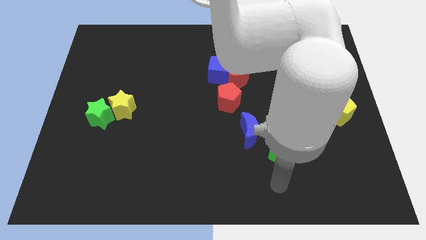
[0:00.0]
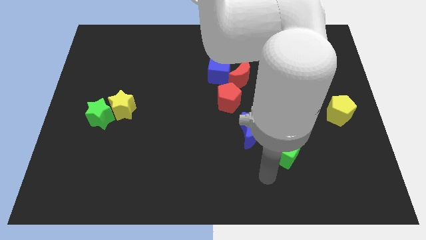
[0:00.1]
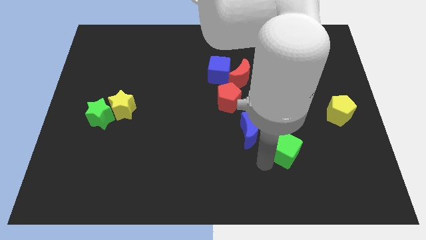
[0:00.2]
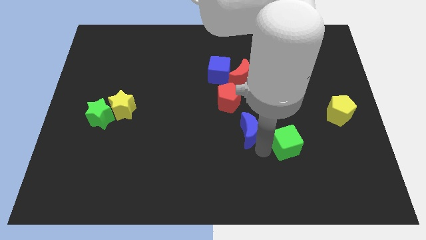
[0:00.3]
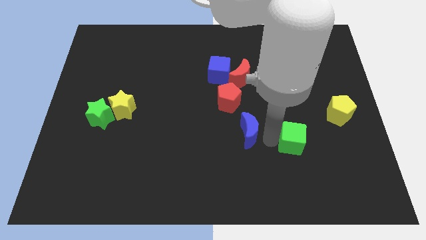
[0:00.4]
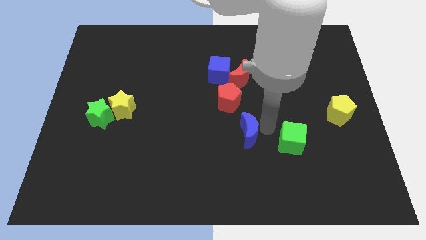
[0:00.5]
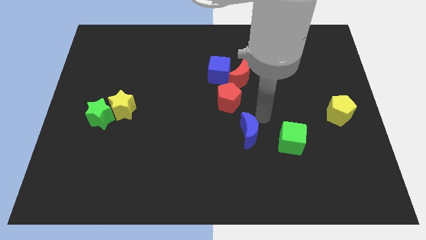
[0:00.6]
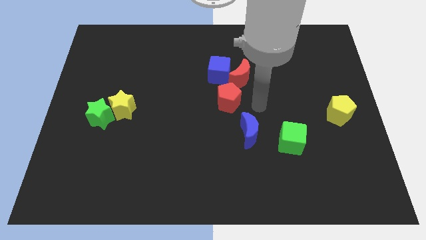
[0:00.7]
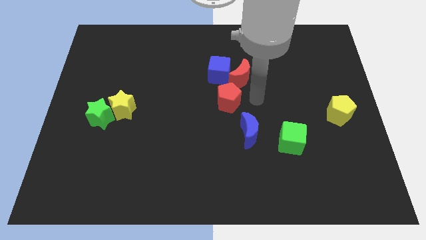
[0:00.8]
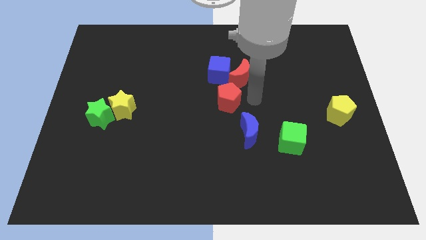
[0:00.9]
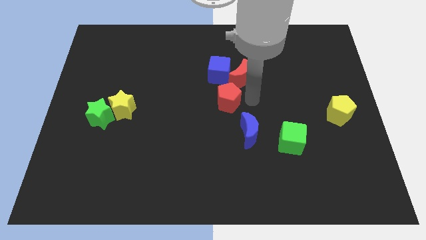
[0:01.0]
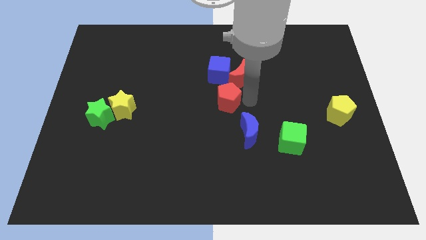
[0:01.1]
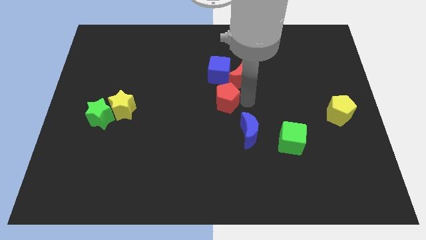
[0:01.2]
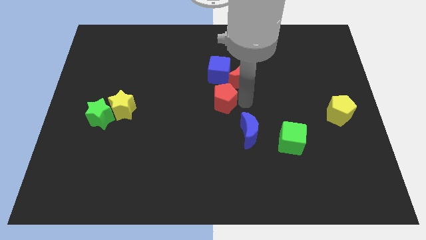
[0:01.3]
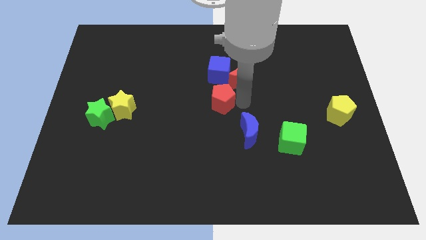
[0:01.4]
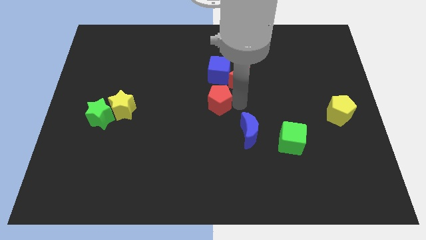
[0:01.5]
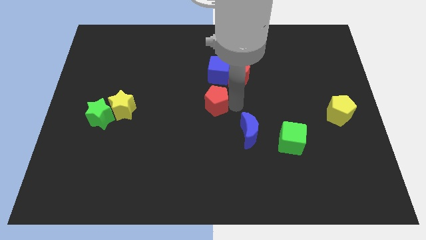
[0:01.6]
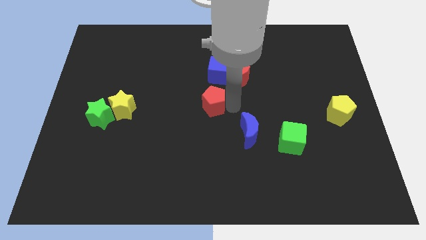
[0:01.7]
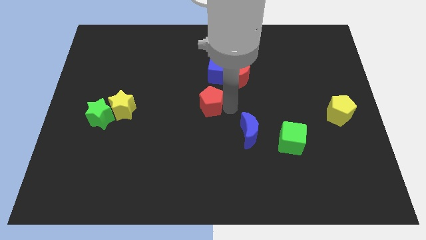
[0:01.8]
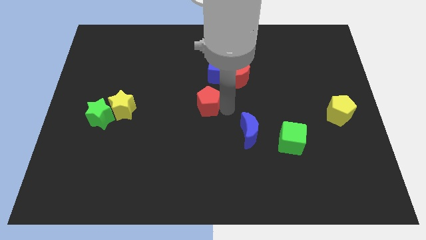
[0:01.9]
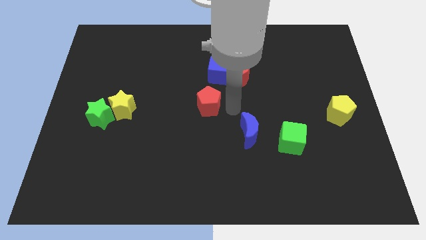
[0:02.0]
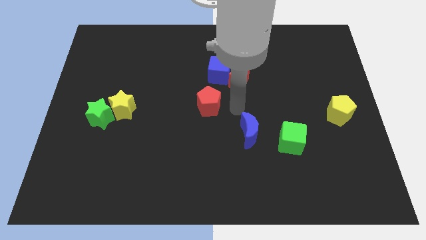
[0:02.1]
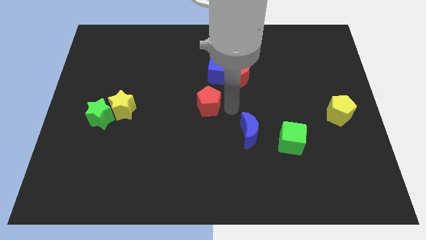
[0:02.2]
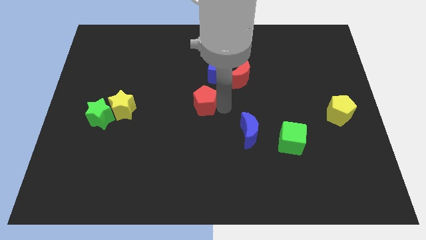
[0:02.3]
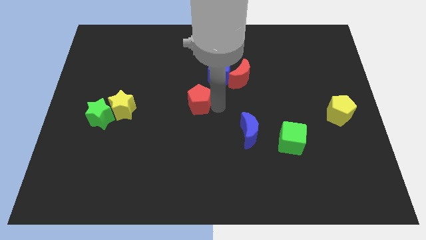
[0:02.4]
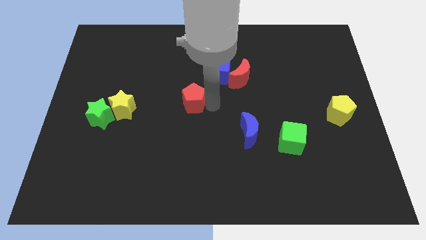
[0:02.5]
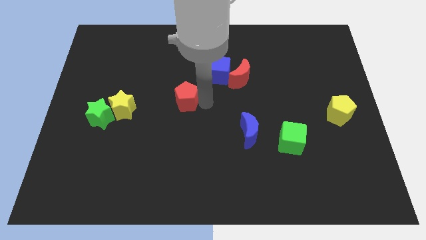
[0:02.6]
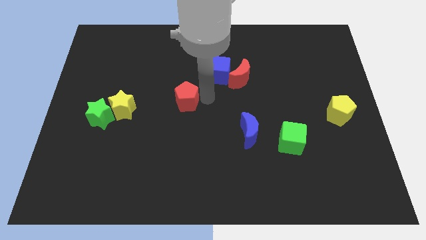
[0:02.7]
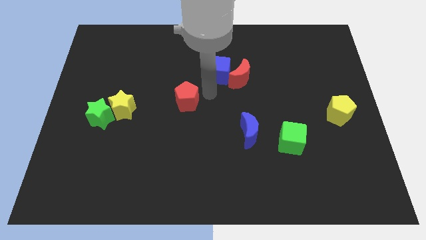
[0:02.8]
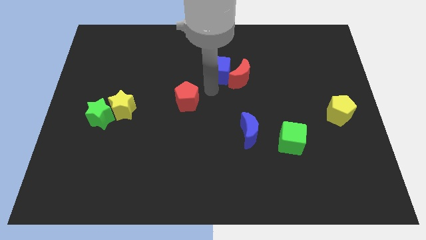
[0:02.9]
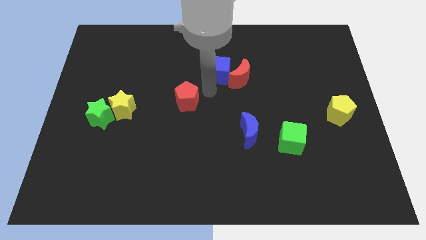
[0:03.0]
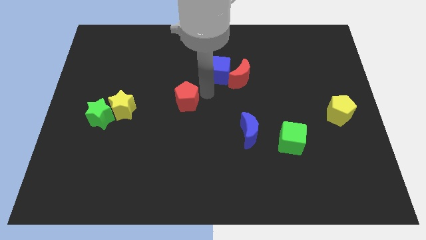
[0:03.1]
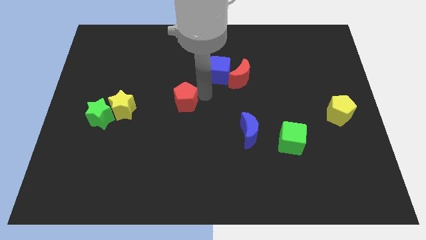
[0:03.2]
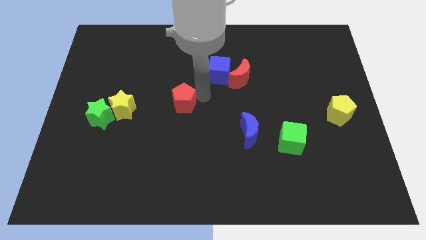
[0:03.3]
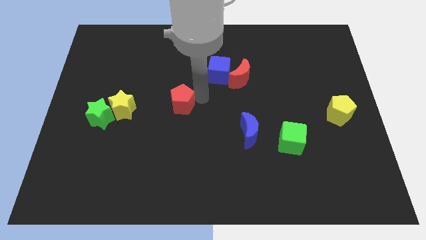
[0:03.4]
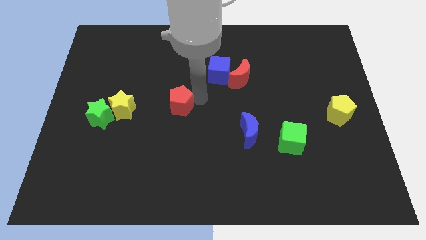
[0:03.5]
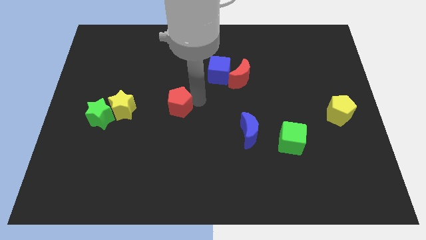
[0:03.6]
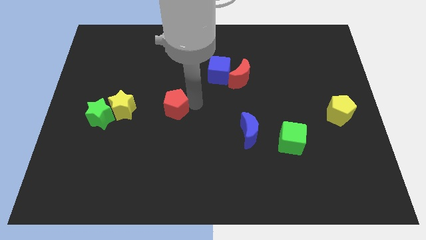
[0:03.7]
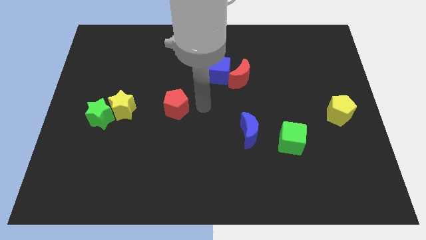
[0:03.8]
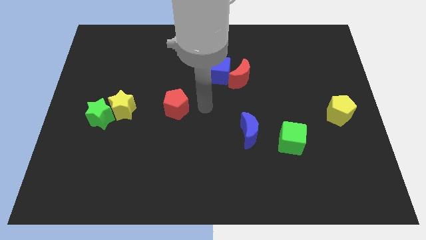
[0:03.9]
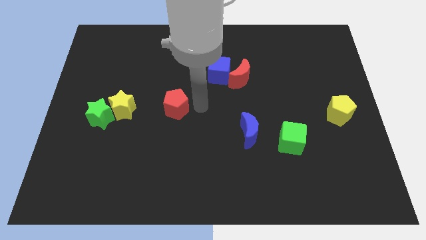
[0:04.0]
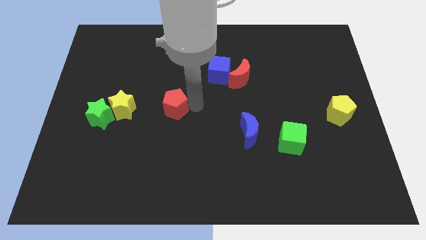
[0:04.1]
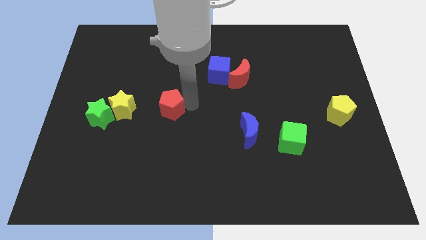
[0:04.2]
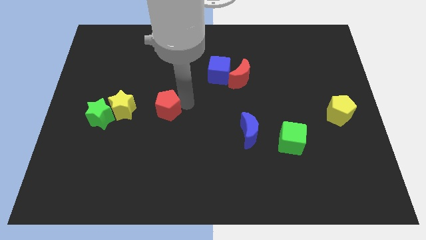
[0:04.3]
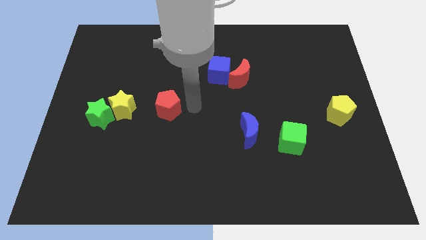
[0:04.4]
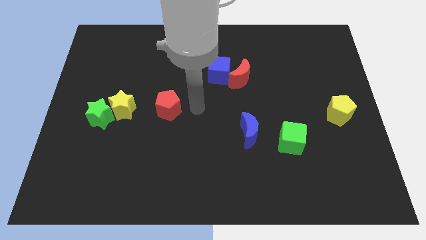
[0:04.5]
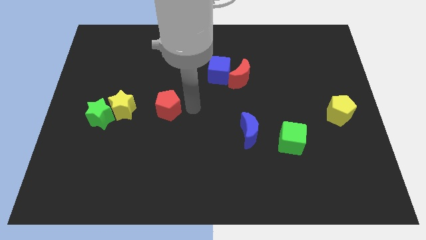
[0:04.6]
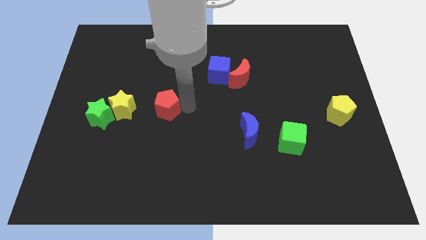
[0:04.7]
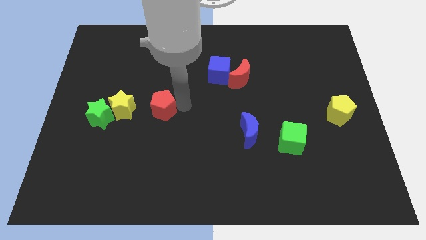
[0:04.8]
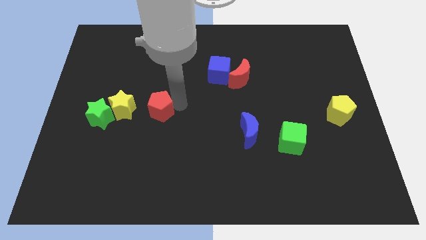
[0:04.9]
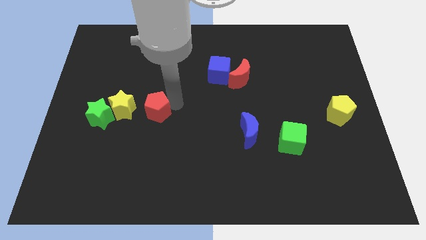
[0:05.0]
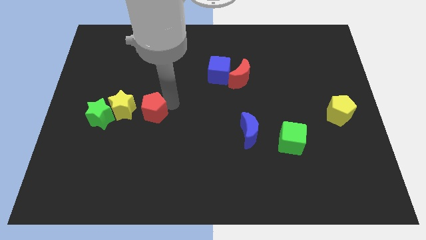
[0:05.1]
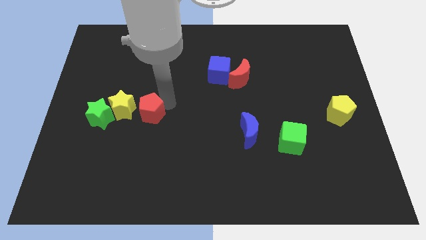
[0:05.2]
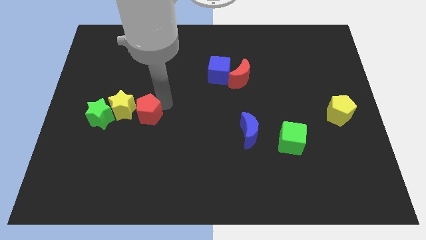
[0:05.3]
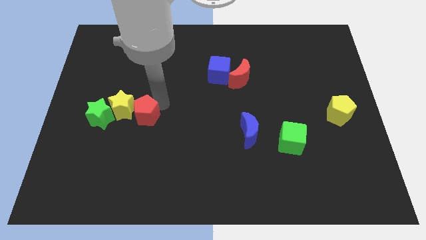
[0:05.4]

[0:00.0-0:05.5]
move the red pentagon to the yellow star

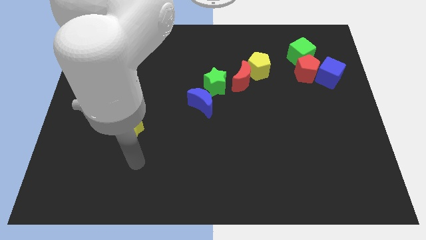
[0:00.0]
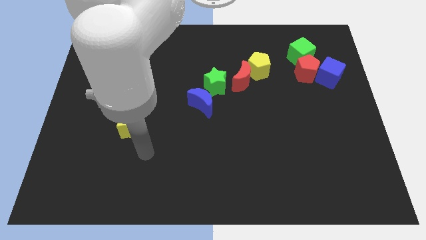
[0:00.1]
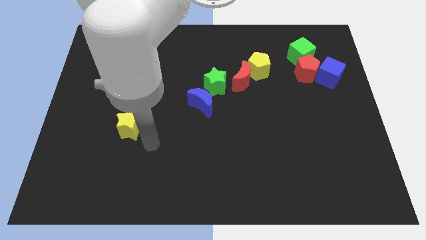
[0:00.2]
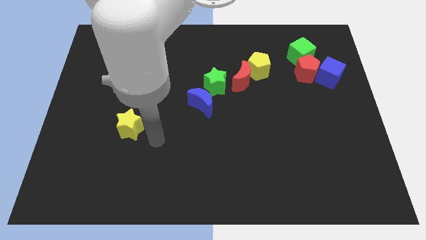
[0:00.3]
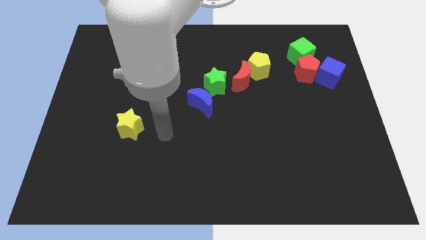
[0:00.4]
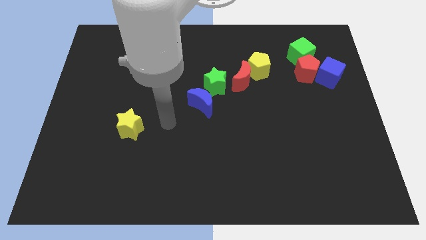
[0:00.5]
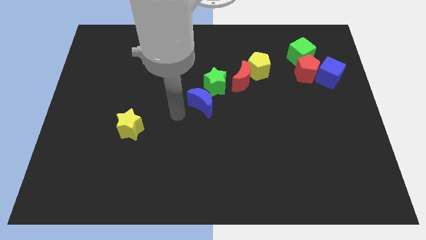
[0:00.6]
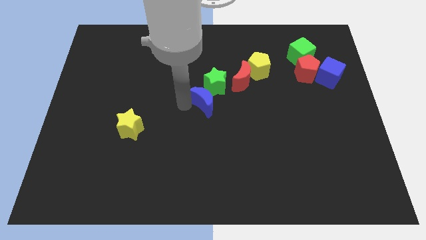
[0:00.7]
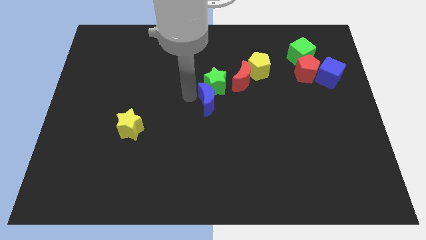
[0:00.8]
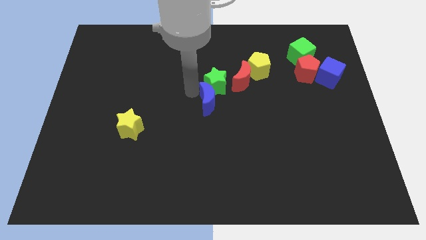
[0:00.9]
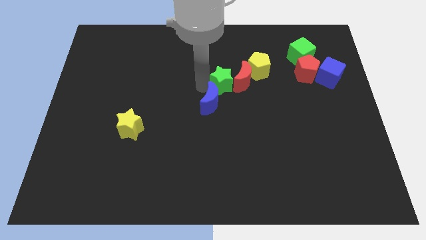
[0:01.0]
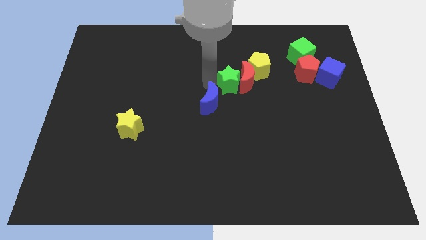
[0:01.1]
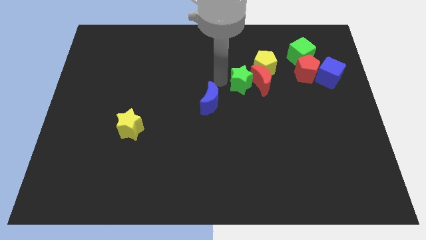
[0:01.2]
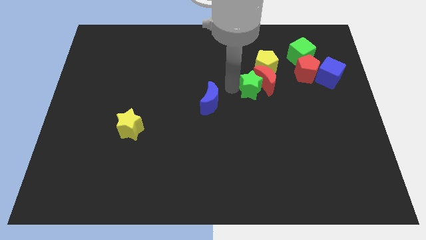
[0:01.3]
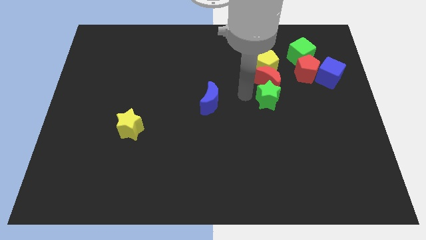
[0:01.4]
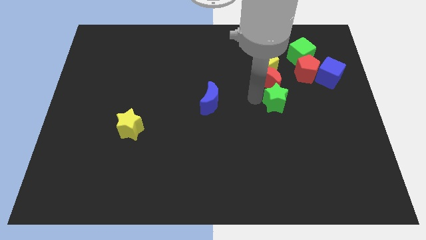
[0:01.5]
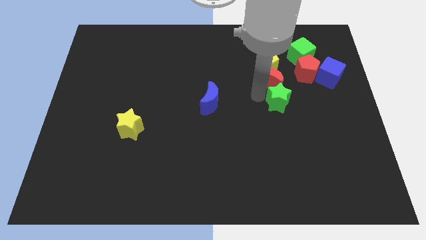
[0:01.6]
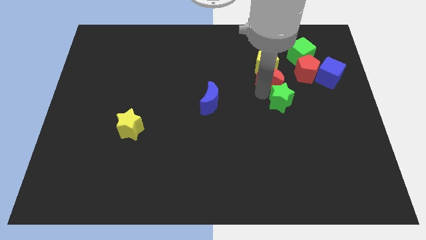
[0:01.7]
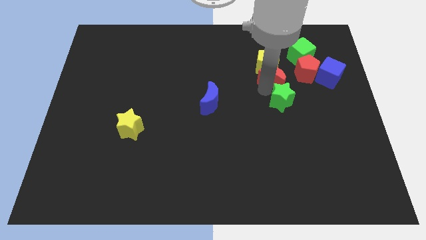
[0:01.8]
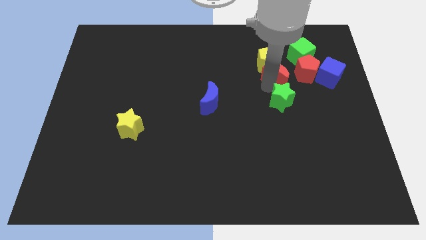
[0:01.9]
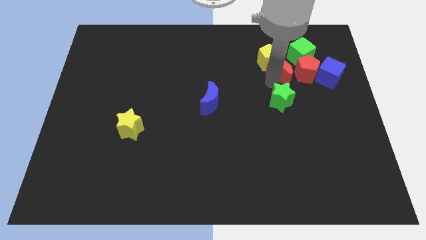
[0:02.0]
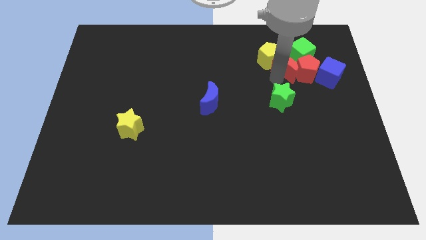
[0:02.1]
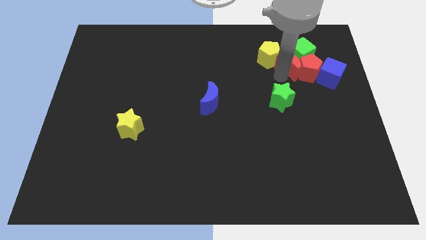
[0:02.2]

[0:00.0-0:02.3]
put the red moon close to the green cube
